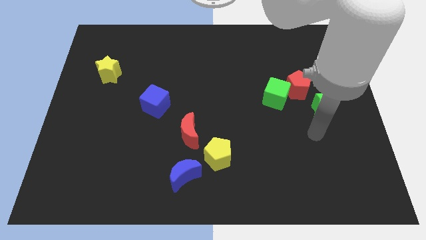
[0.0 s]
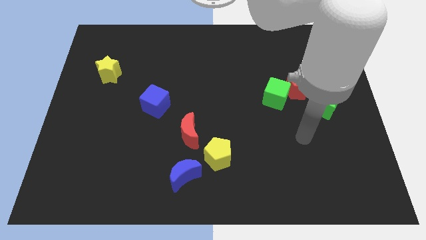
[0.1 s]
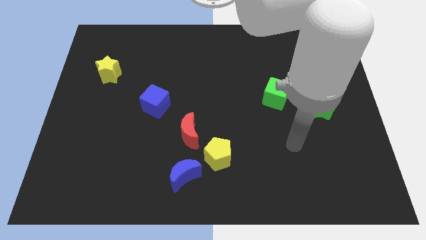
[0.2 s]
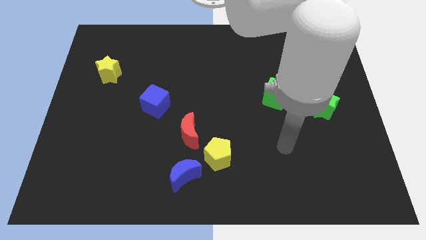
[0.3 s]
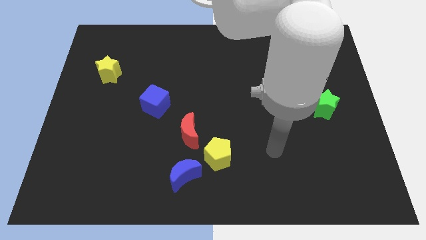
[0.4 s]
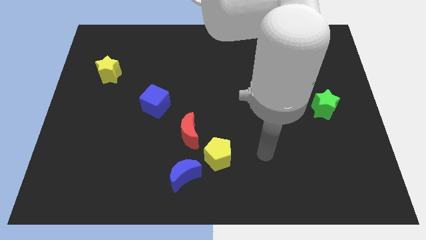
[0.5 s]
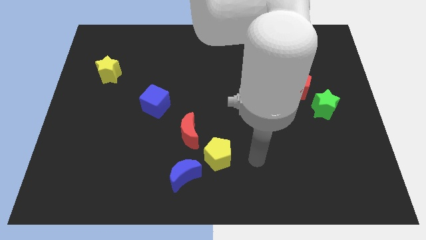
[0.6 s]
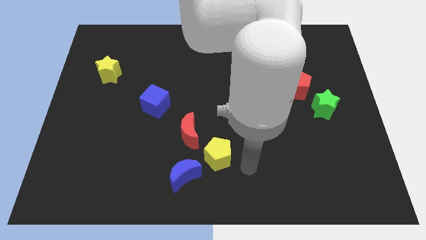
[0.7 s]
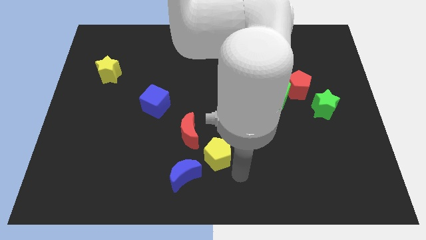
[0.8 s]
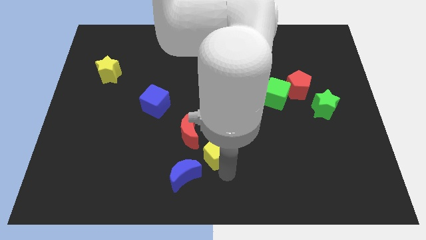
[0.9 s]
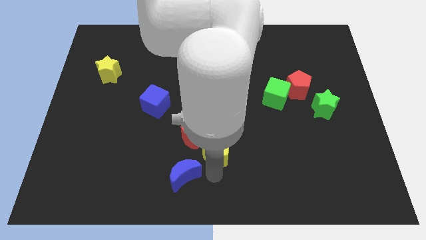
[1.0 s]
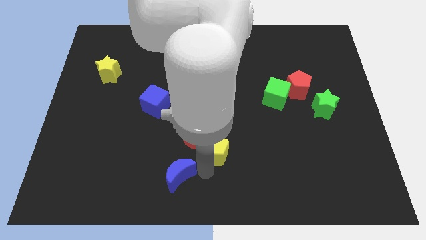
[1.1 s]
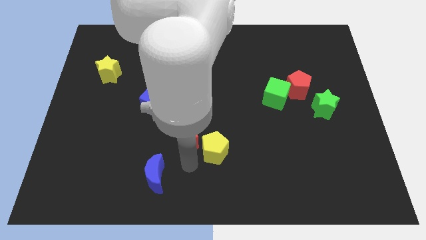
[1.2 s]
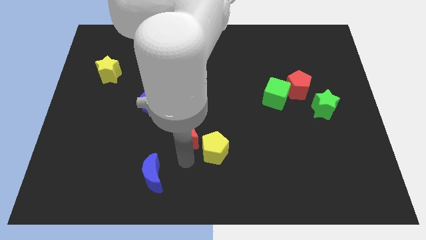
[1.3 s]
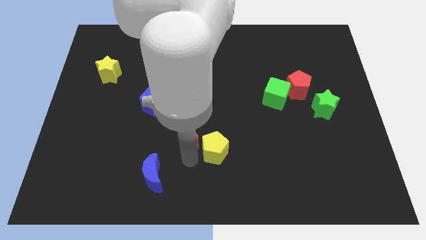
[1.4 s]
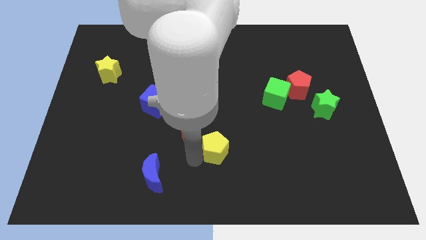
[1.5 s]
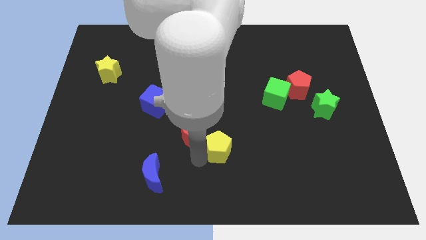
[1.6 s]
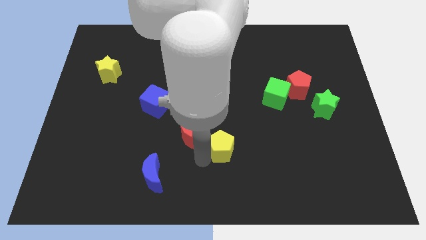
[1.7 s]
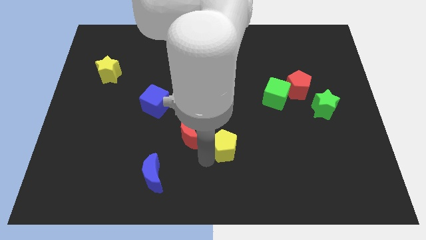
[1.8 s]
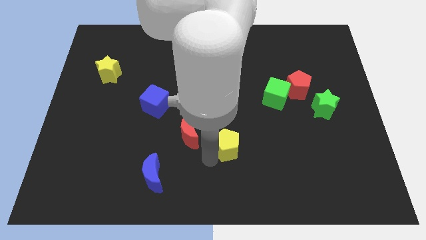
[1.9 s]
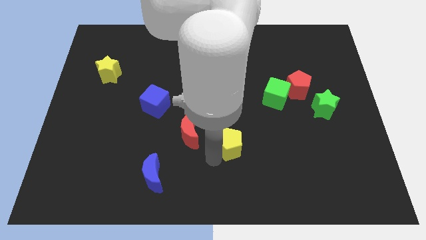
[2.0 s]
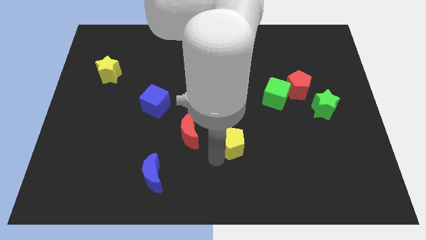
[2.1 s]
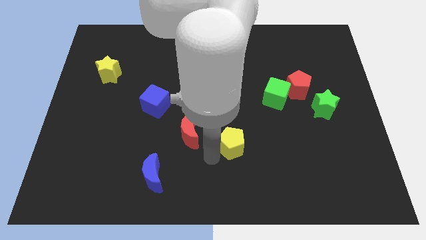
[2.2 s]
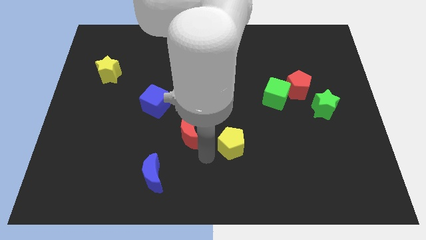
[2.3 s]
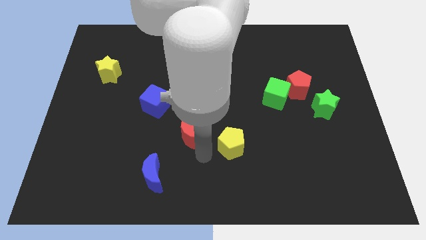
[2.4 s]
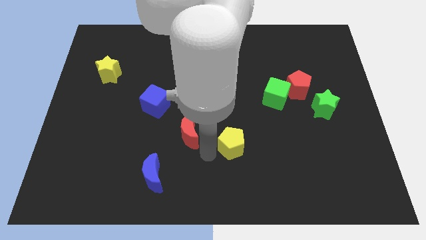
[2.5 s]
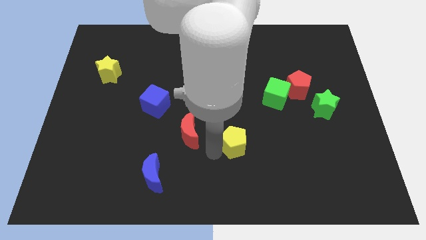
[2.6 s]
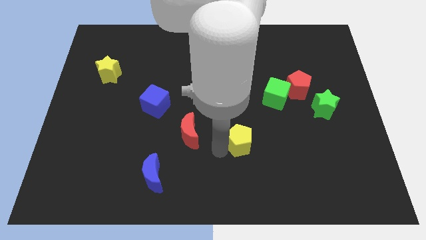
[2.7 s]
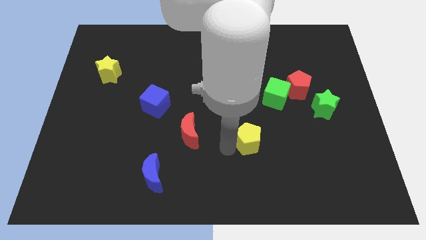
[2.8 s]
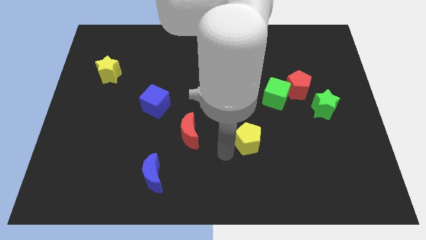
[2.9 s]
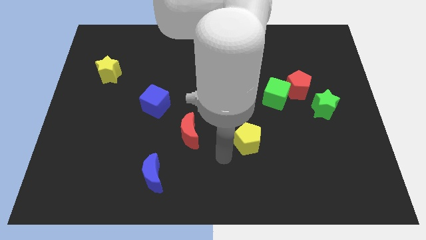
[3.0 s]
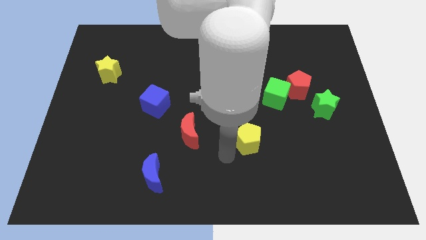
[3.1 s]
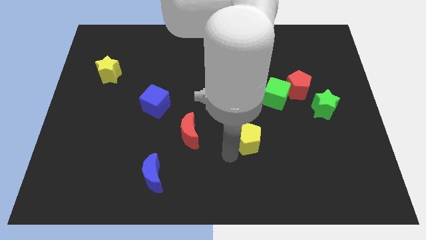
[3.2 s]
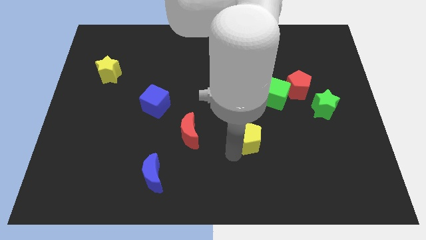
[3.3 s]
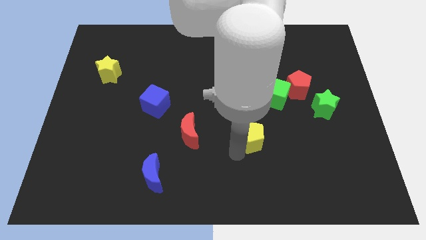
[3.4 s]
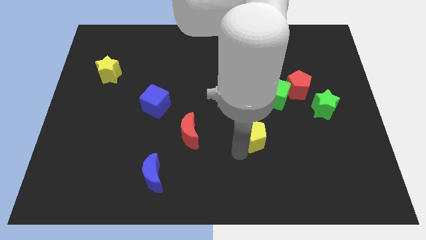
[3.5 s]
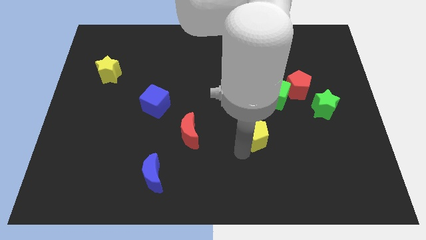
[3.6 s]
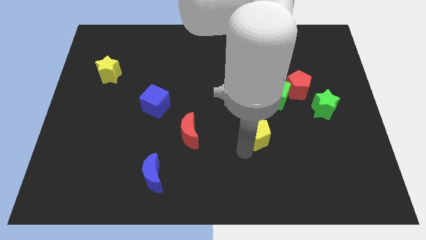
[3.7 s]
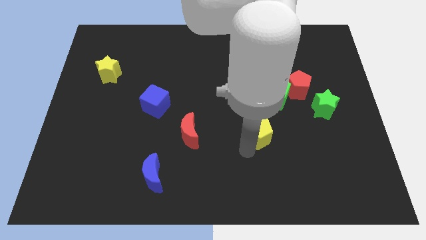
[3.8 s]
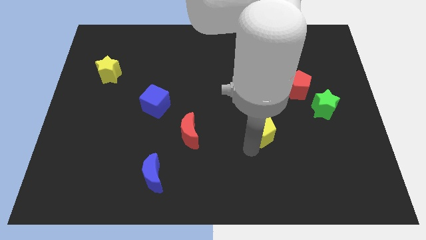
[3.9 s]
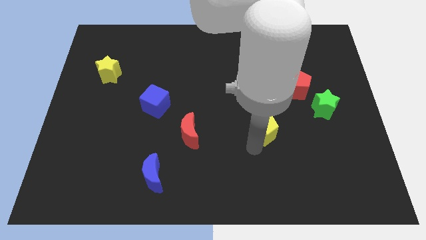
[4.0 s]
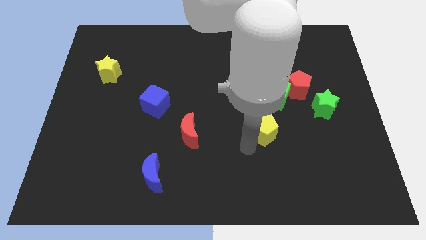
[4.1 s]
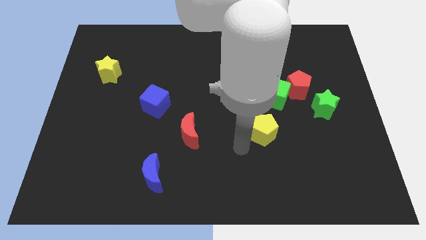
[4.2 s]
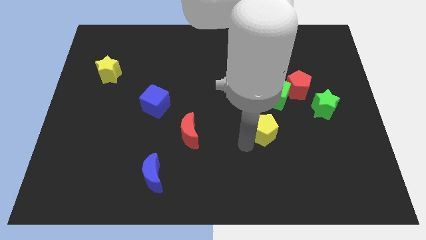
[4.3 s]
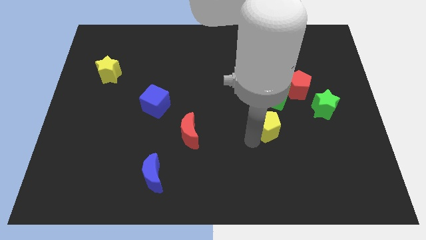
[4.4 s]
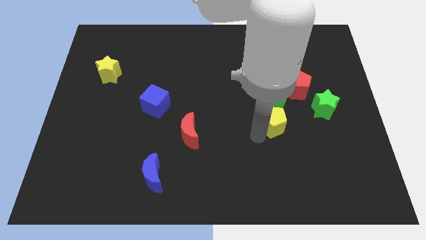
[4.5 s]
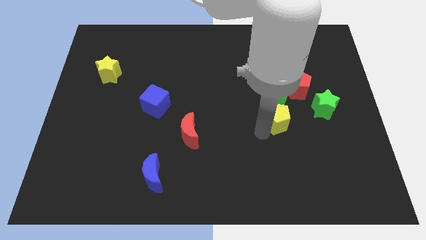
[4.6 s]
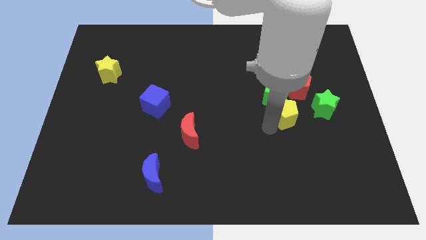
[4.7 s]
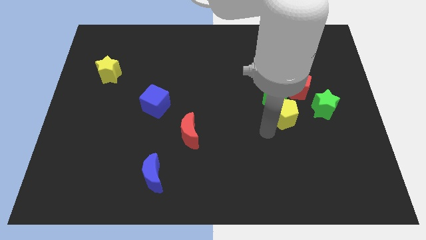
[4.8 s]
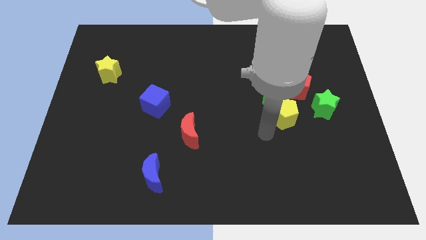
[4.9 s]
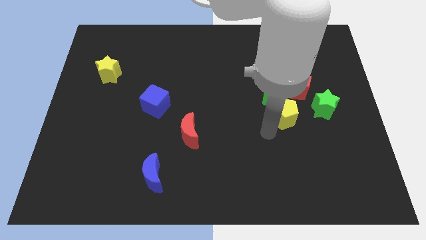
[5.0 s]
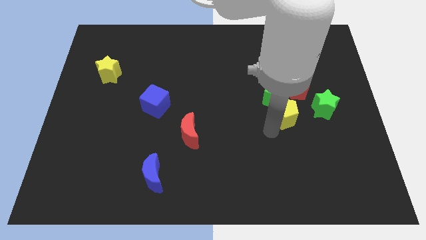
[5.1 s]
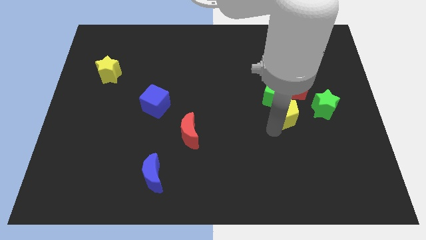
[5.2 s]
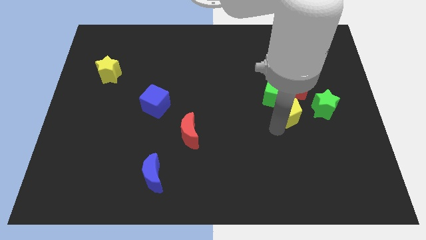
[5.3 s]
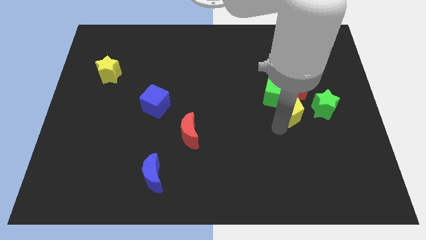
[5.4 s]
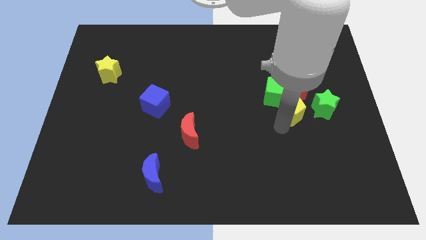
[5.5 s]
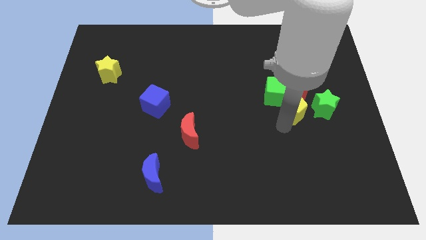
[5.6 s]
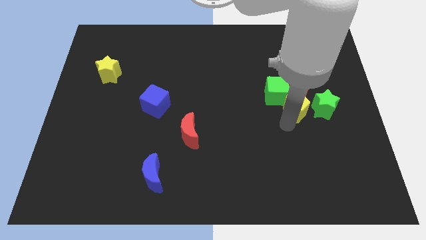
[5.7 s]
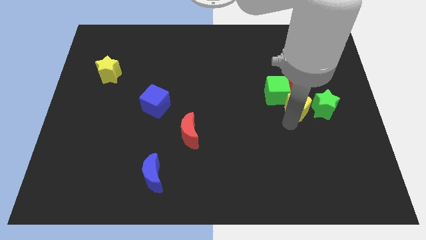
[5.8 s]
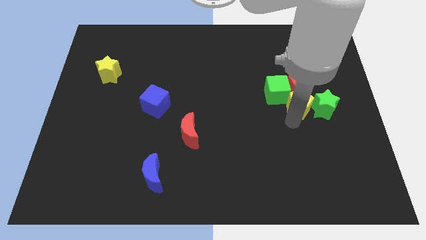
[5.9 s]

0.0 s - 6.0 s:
put the yellow pentagon close to the red pentagon

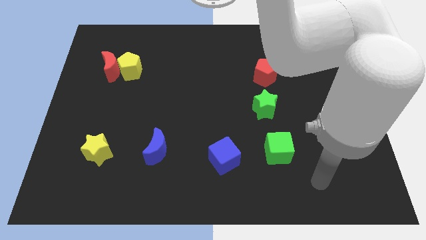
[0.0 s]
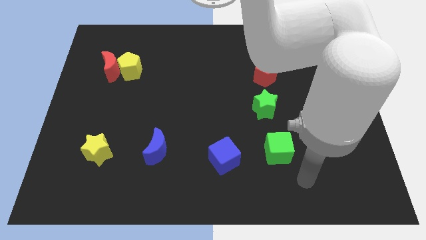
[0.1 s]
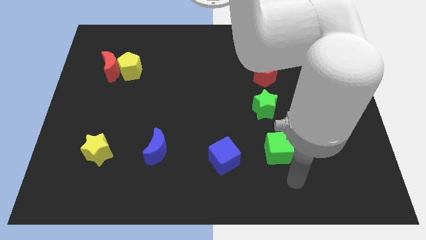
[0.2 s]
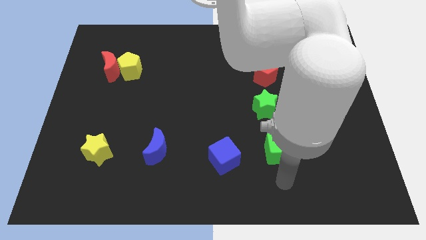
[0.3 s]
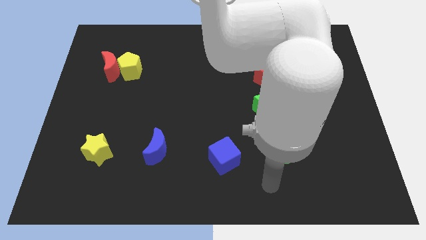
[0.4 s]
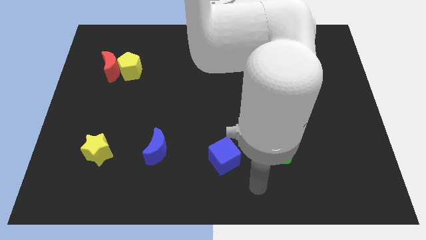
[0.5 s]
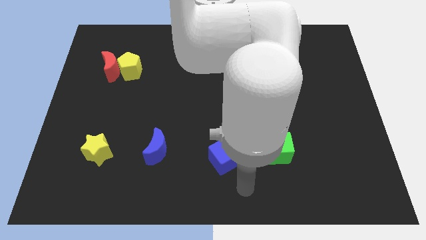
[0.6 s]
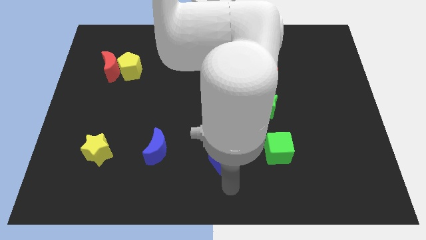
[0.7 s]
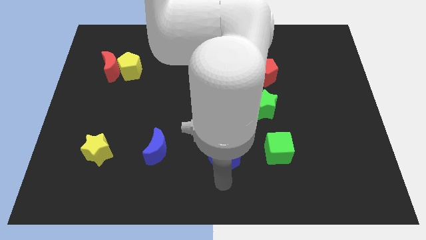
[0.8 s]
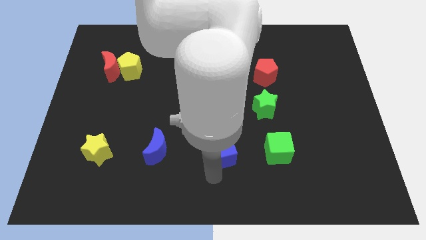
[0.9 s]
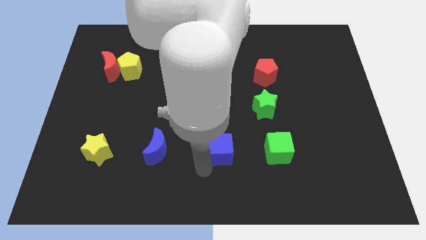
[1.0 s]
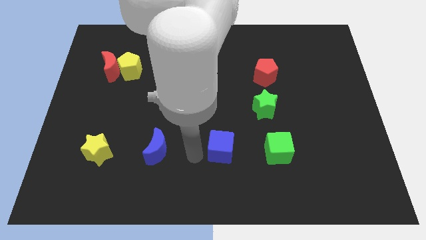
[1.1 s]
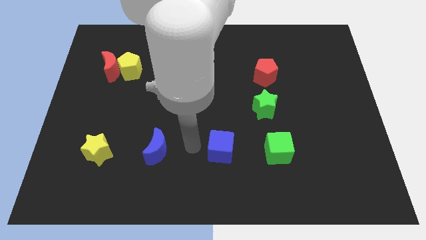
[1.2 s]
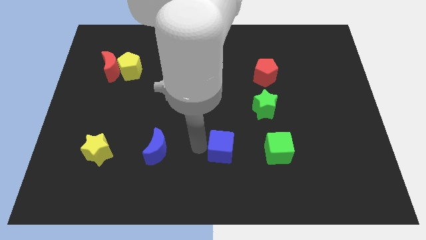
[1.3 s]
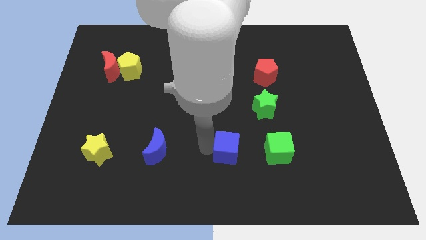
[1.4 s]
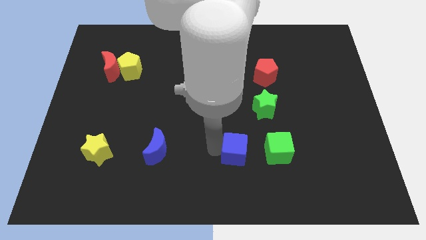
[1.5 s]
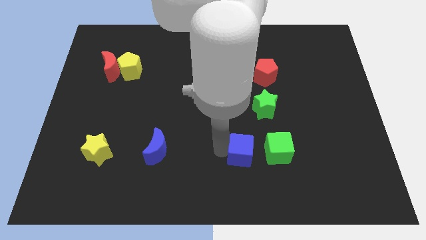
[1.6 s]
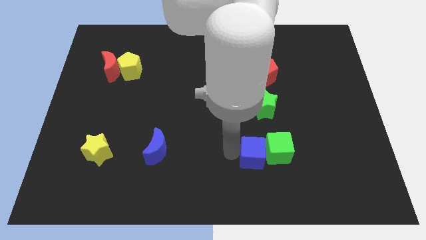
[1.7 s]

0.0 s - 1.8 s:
push the blue cube close to the green cube
